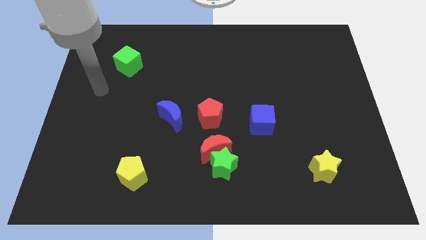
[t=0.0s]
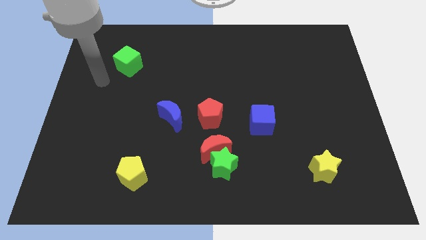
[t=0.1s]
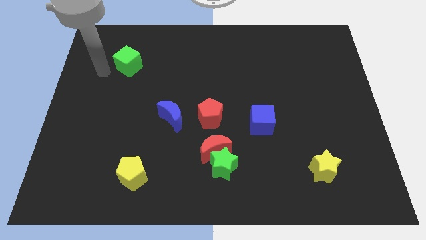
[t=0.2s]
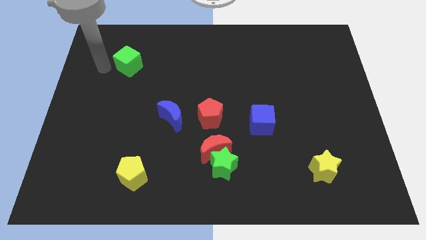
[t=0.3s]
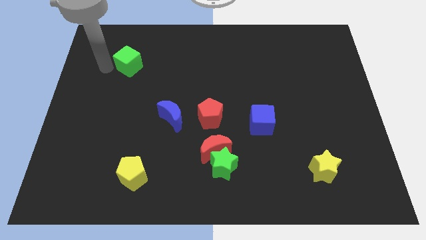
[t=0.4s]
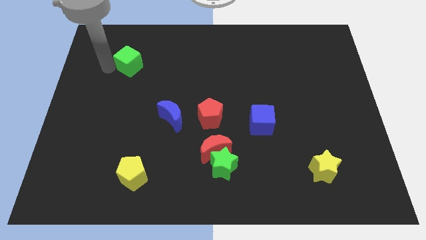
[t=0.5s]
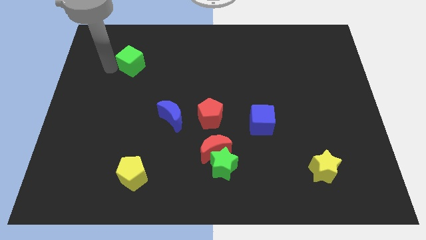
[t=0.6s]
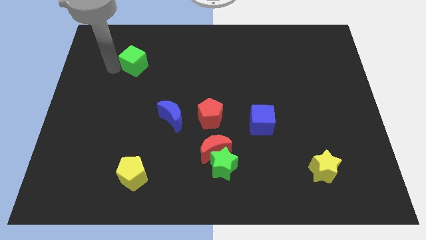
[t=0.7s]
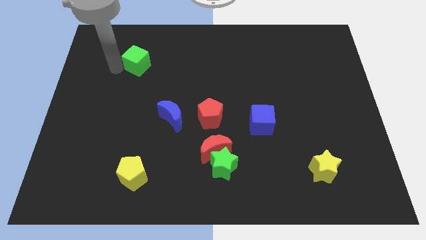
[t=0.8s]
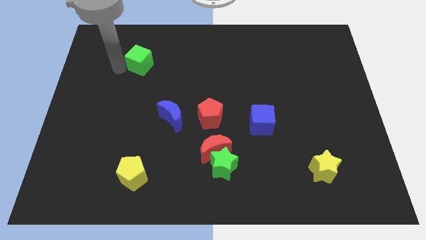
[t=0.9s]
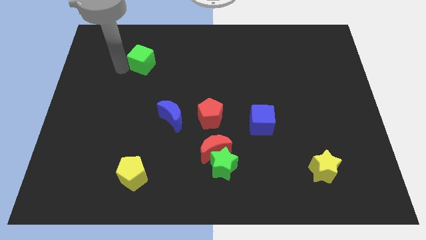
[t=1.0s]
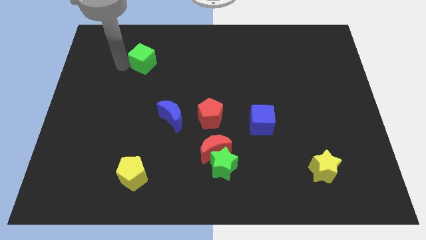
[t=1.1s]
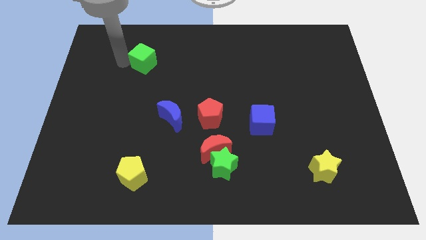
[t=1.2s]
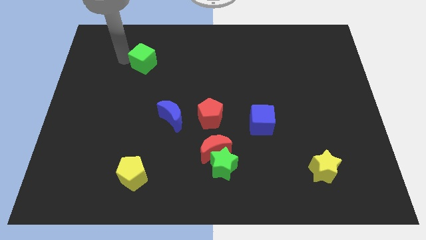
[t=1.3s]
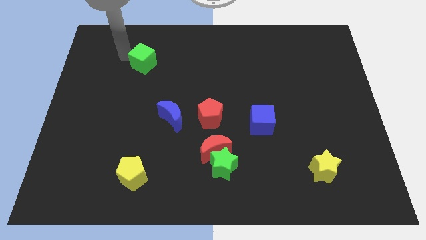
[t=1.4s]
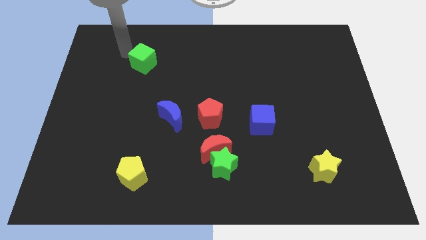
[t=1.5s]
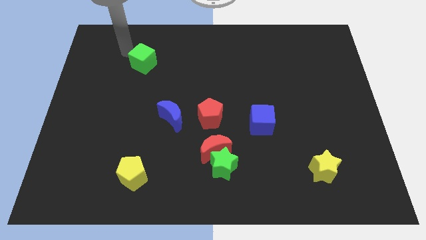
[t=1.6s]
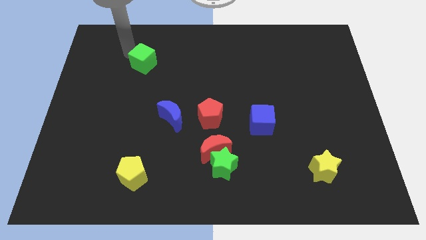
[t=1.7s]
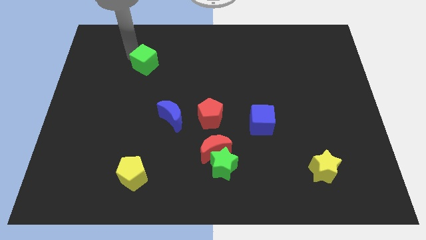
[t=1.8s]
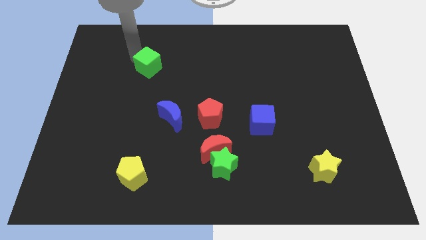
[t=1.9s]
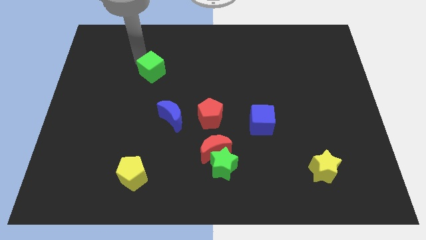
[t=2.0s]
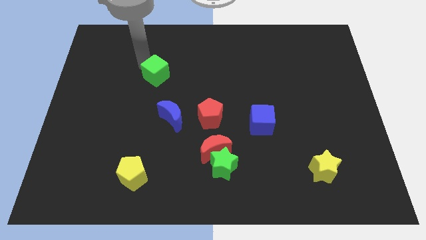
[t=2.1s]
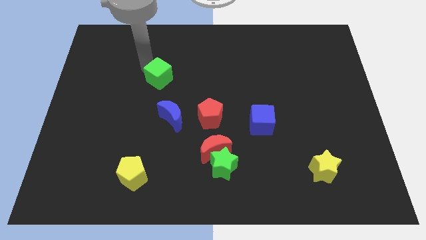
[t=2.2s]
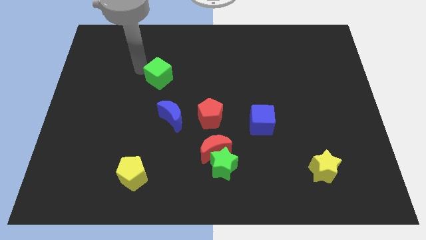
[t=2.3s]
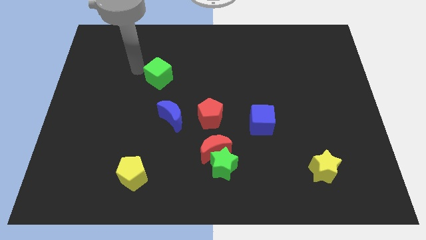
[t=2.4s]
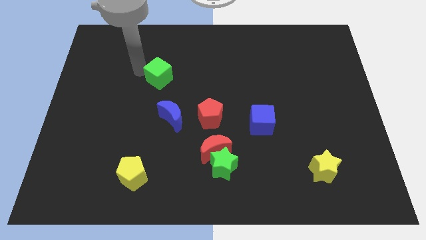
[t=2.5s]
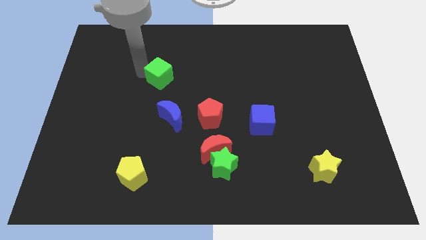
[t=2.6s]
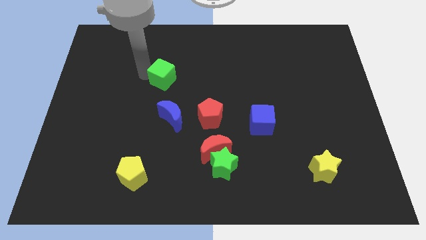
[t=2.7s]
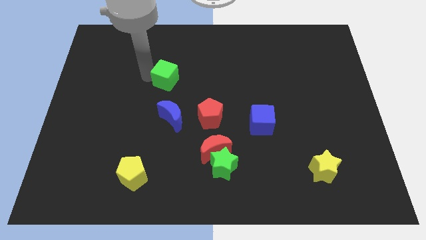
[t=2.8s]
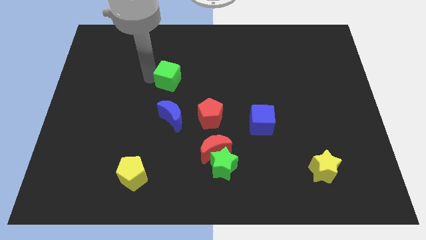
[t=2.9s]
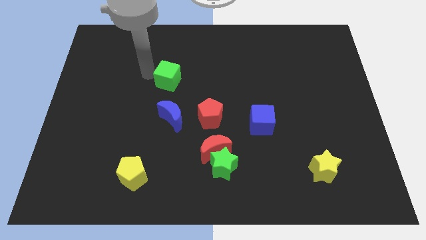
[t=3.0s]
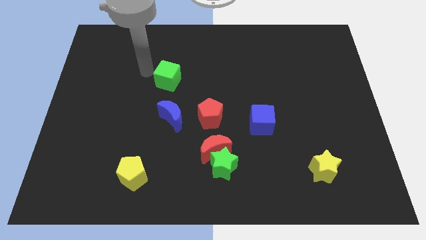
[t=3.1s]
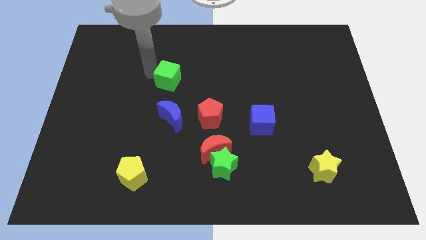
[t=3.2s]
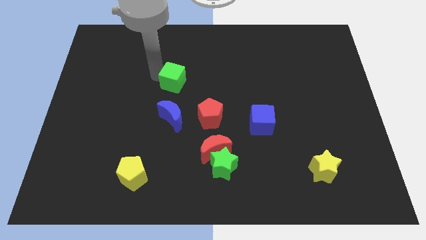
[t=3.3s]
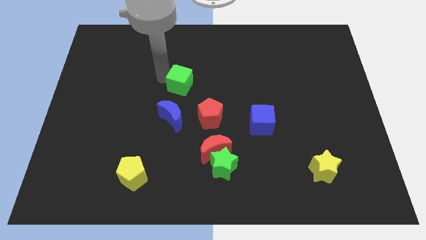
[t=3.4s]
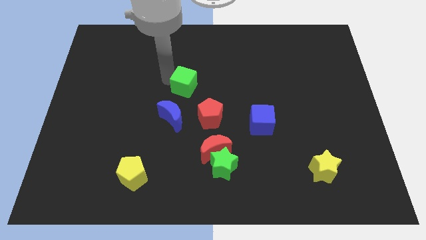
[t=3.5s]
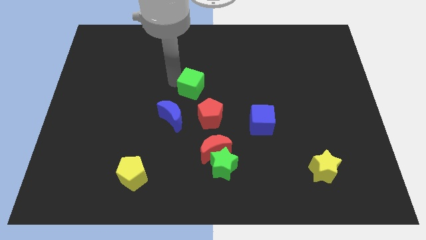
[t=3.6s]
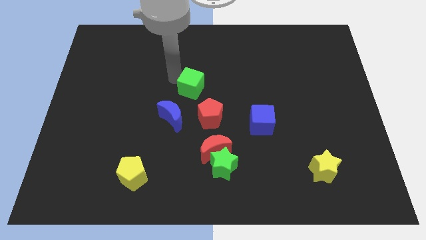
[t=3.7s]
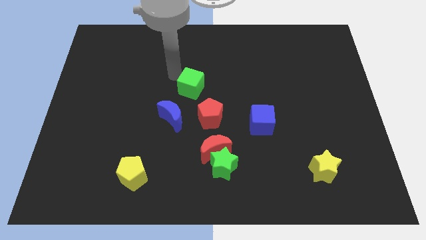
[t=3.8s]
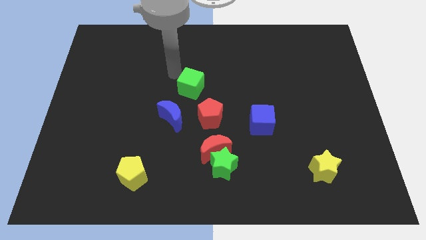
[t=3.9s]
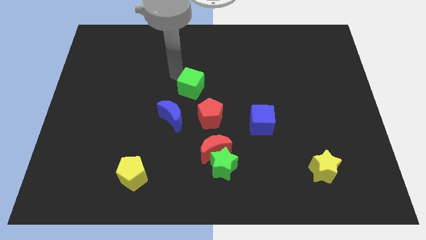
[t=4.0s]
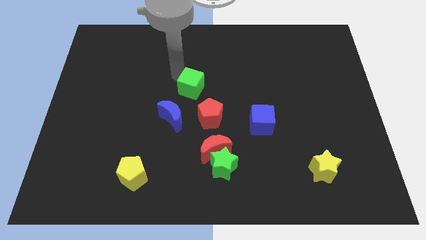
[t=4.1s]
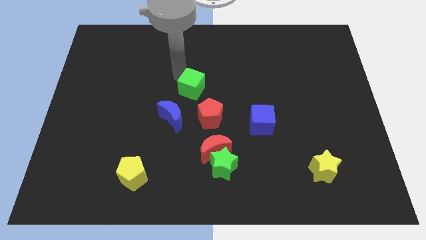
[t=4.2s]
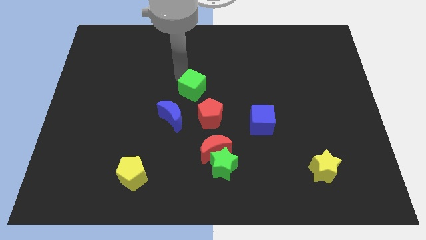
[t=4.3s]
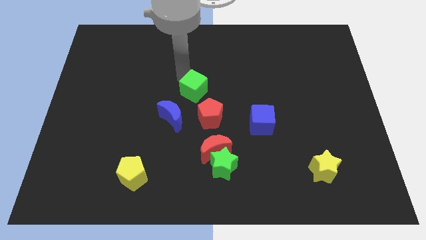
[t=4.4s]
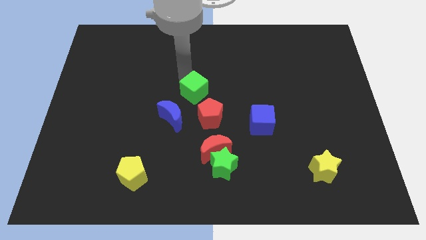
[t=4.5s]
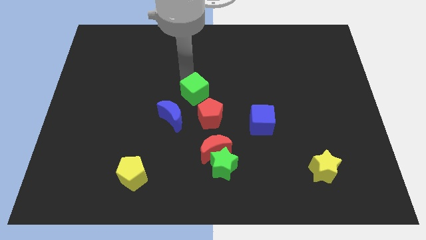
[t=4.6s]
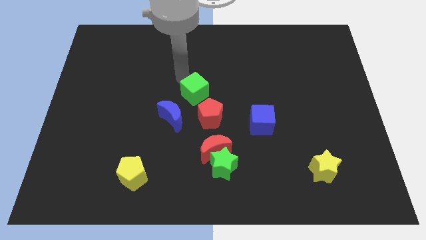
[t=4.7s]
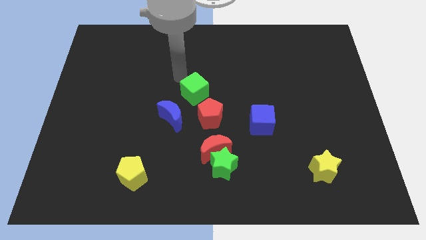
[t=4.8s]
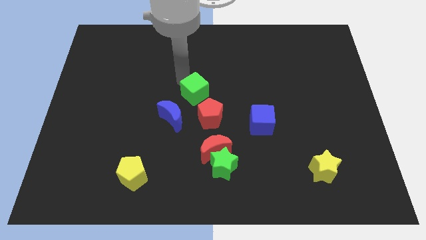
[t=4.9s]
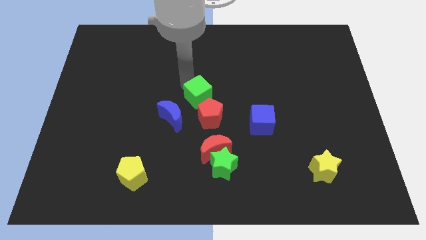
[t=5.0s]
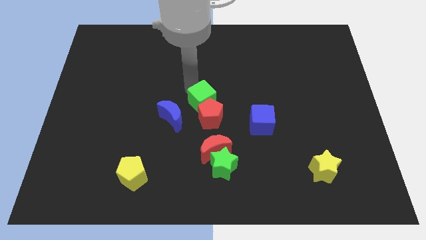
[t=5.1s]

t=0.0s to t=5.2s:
put the green cube to the top side of the red moon

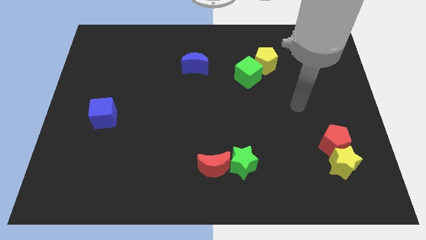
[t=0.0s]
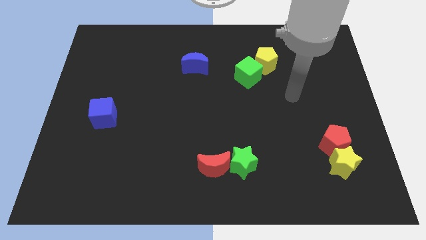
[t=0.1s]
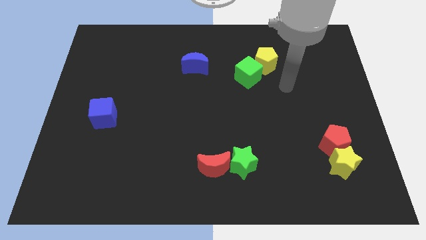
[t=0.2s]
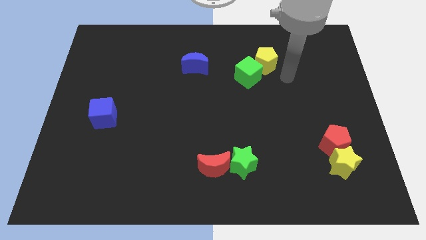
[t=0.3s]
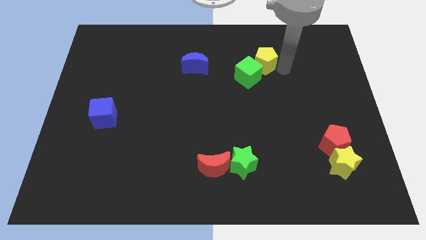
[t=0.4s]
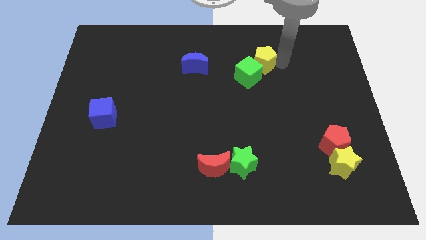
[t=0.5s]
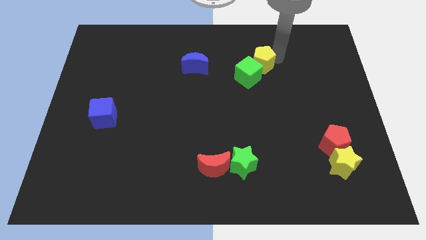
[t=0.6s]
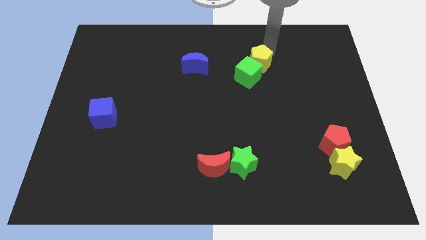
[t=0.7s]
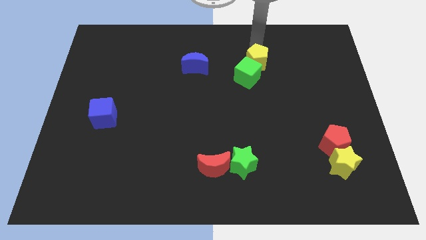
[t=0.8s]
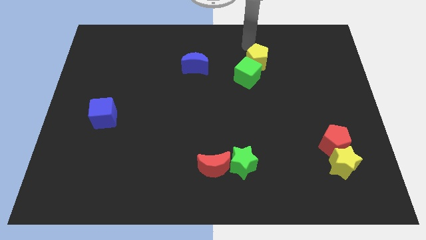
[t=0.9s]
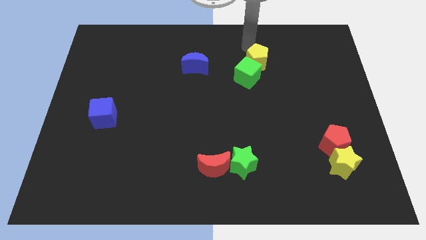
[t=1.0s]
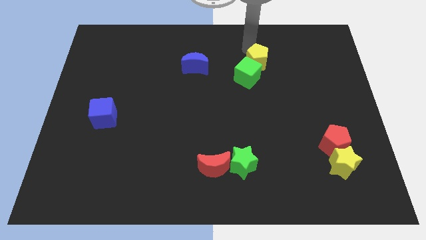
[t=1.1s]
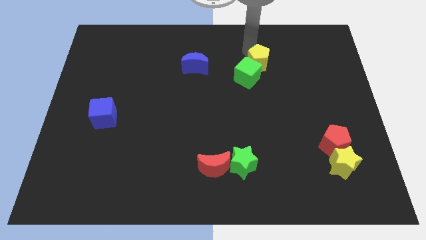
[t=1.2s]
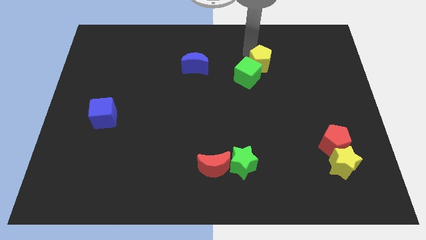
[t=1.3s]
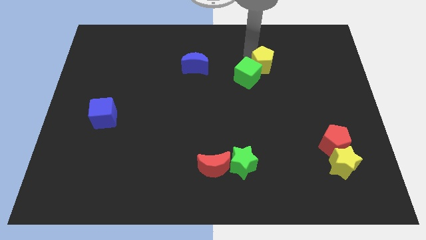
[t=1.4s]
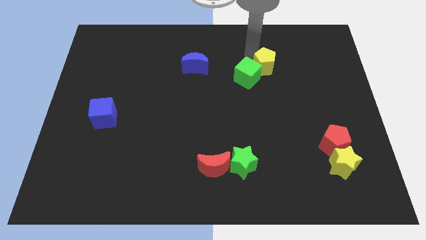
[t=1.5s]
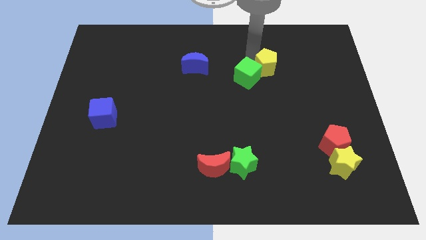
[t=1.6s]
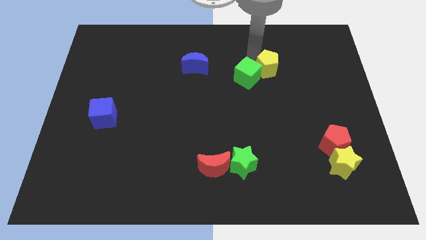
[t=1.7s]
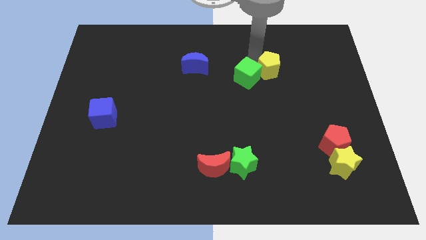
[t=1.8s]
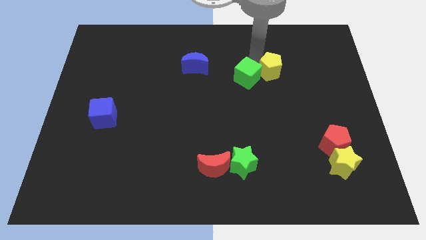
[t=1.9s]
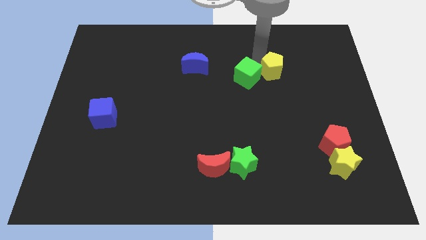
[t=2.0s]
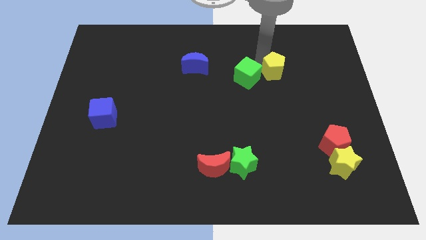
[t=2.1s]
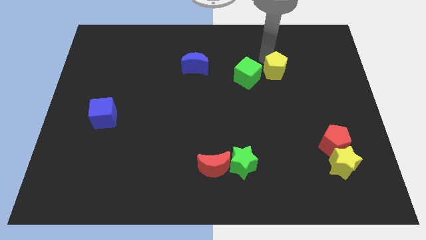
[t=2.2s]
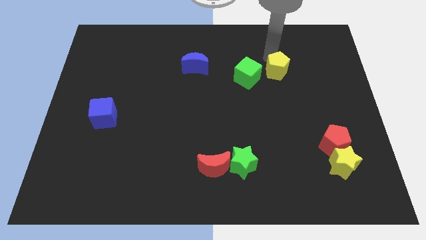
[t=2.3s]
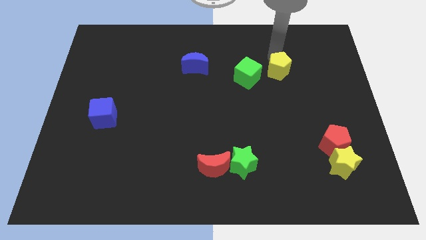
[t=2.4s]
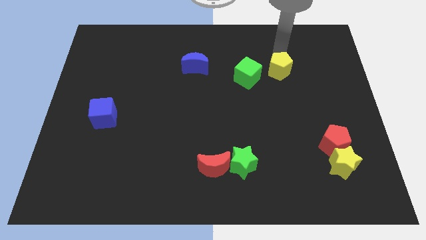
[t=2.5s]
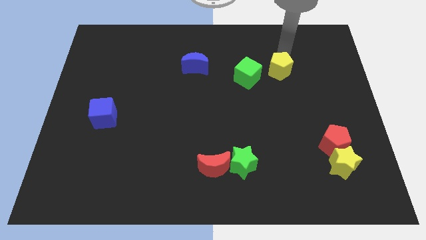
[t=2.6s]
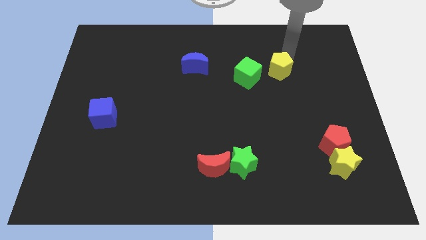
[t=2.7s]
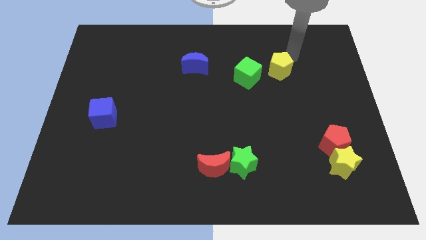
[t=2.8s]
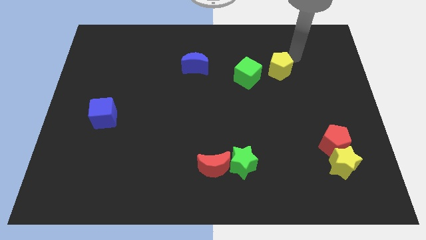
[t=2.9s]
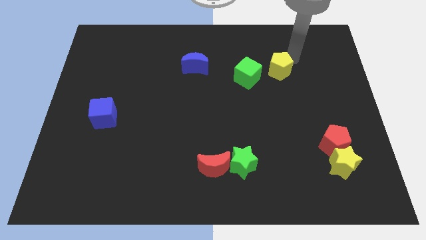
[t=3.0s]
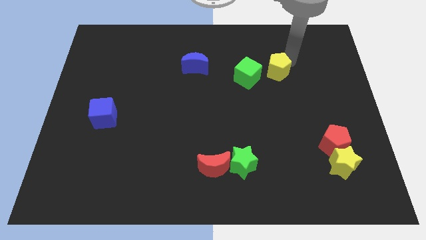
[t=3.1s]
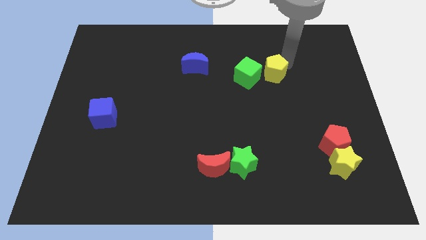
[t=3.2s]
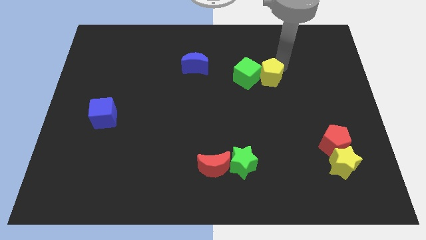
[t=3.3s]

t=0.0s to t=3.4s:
slide the yellow pentagon to the bottom right side of the green cube
